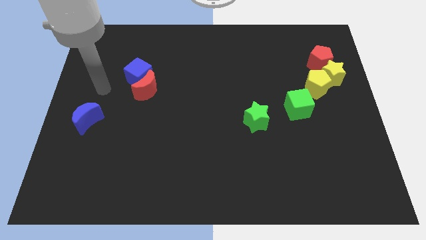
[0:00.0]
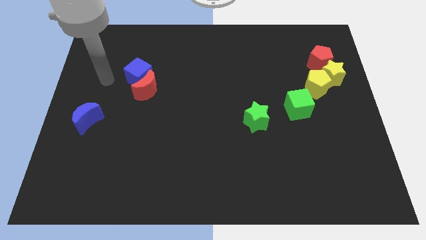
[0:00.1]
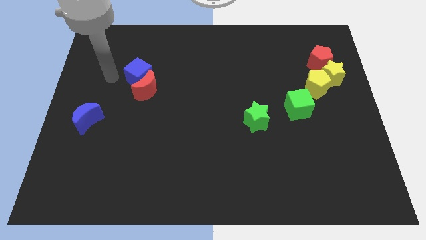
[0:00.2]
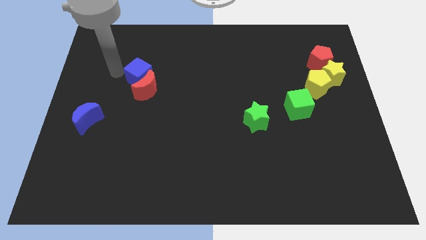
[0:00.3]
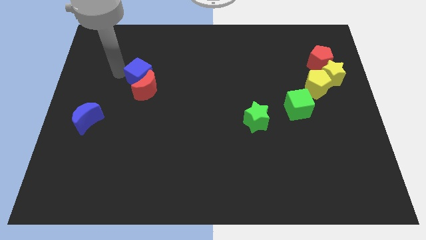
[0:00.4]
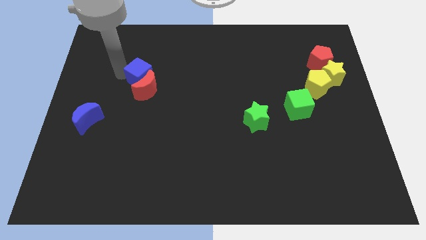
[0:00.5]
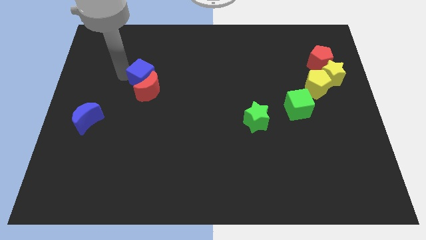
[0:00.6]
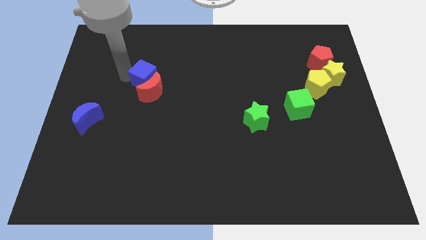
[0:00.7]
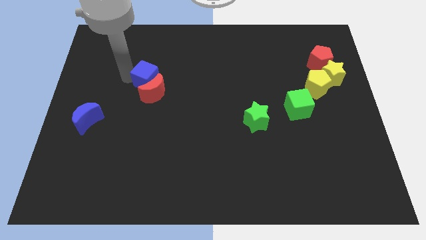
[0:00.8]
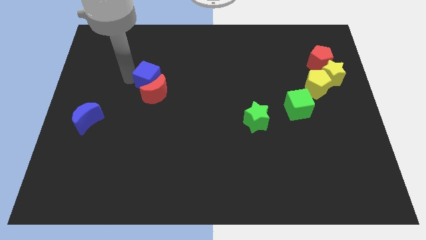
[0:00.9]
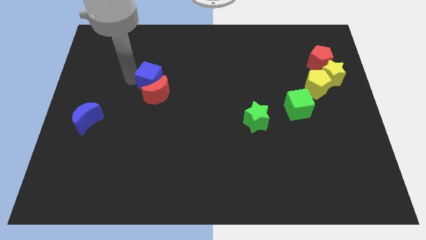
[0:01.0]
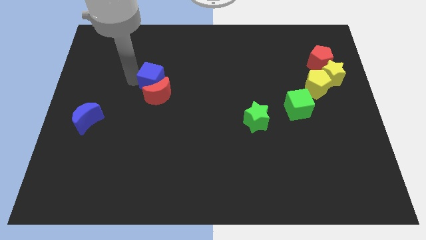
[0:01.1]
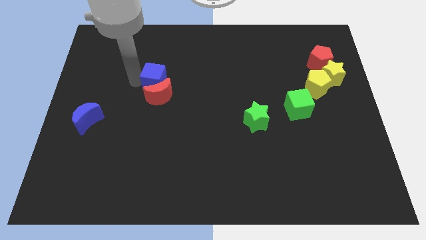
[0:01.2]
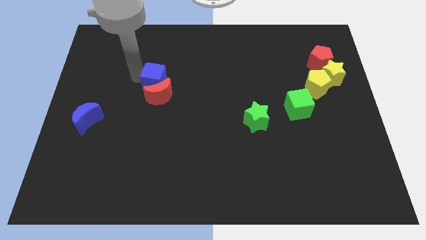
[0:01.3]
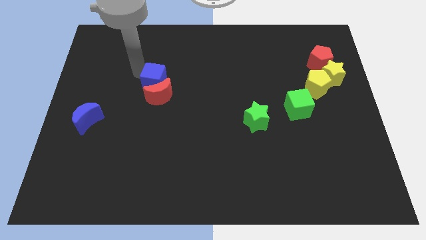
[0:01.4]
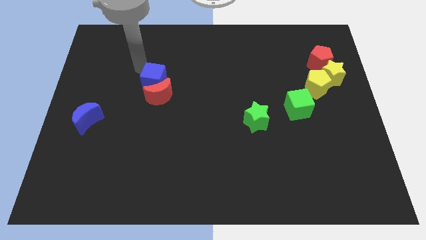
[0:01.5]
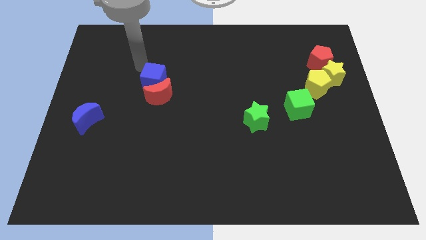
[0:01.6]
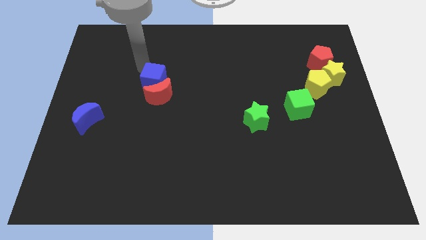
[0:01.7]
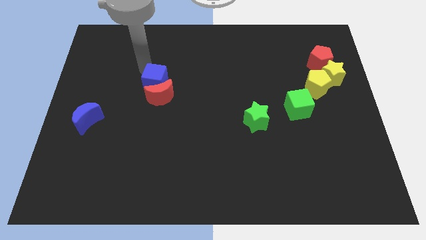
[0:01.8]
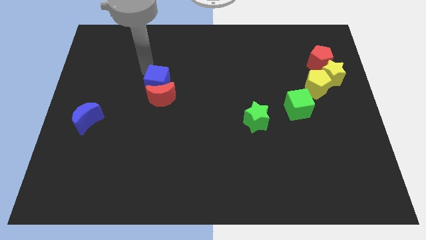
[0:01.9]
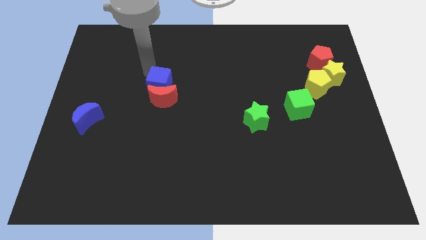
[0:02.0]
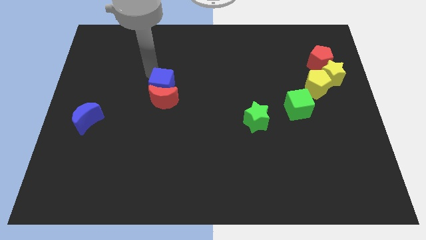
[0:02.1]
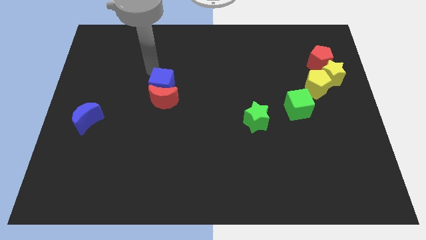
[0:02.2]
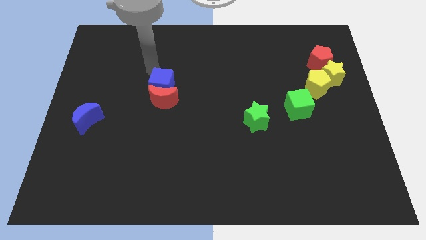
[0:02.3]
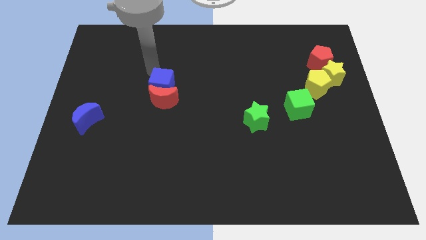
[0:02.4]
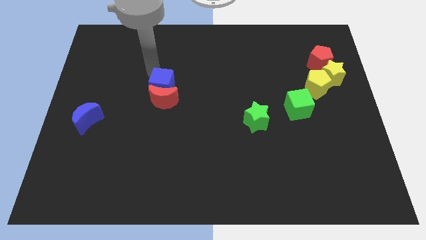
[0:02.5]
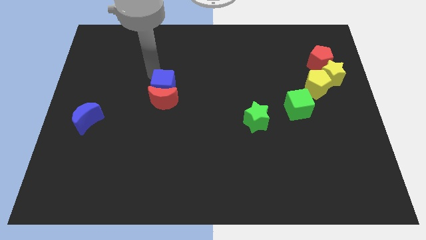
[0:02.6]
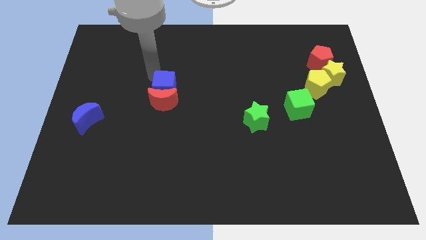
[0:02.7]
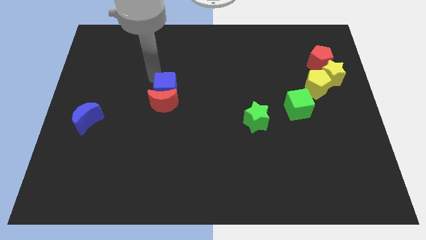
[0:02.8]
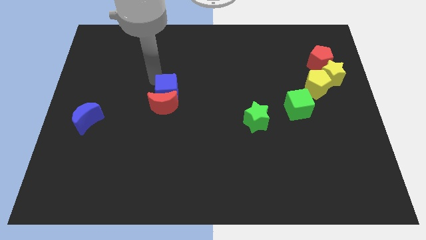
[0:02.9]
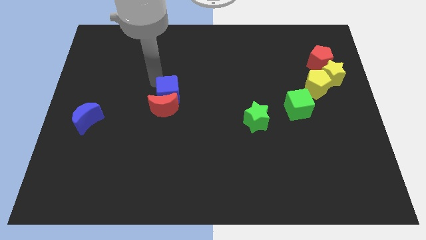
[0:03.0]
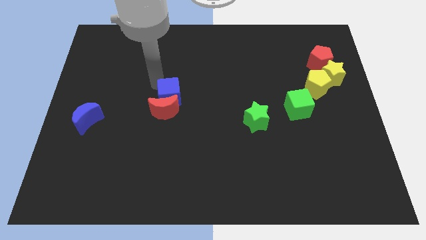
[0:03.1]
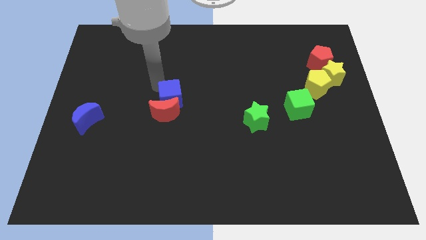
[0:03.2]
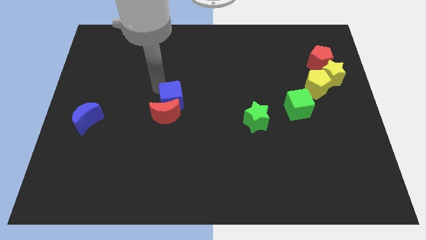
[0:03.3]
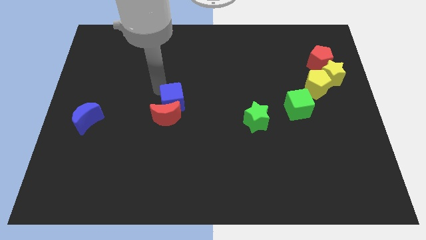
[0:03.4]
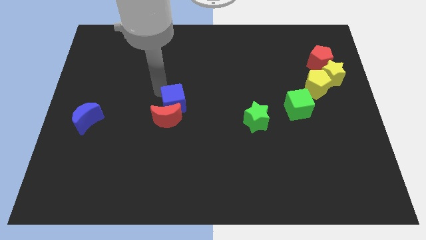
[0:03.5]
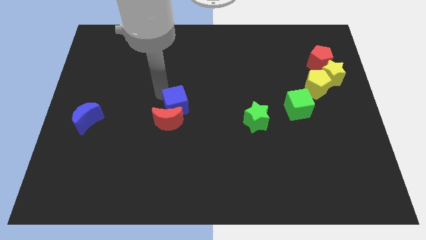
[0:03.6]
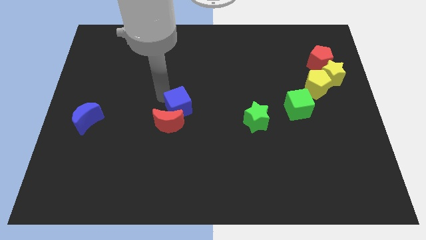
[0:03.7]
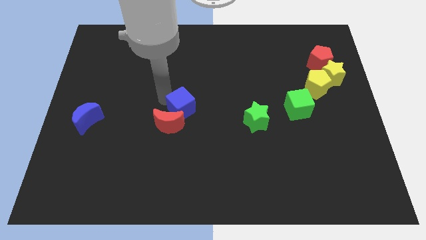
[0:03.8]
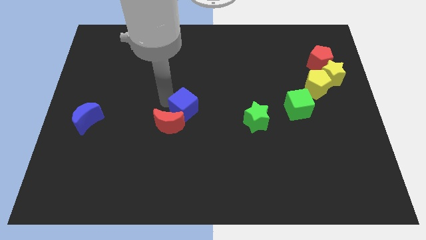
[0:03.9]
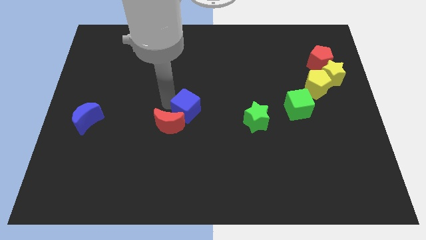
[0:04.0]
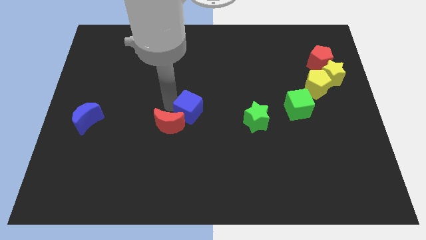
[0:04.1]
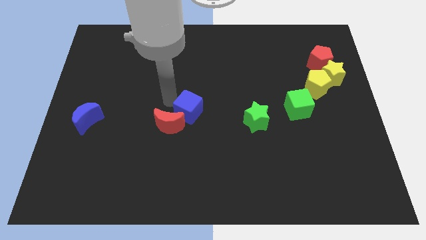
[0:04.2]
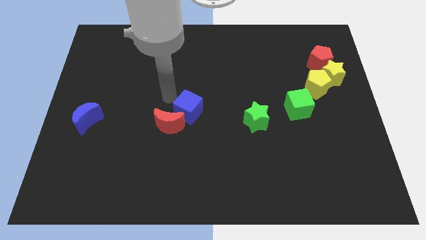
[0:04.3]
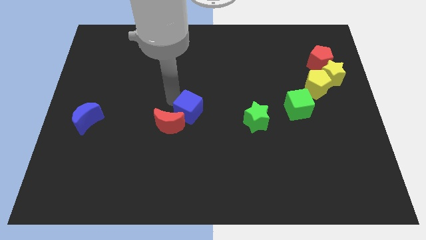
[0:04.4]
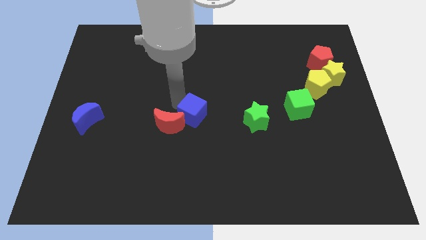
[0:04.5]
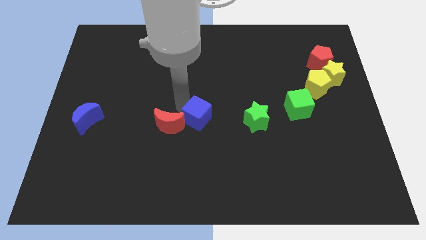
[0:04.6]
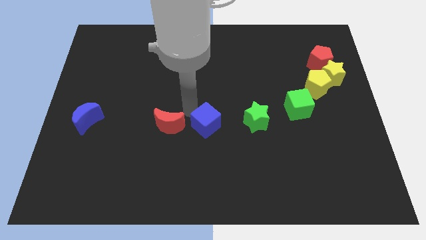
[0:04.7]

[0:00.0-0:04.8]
slide the blue cube downwards and then right

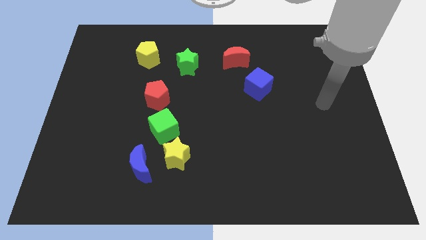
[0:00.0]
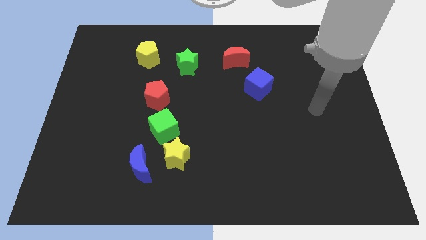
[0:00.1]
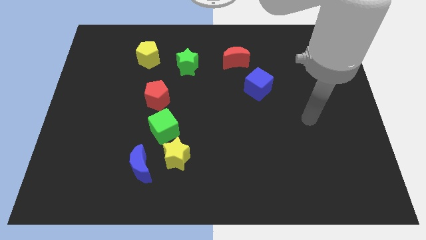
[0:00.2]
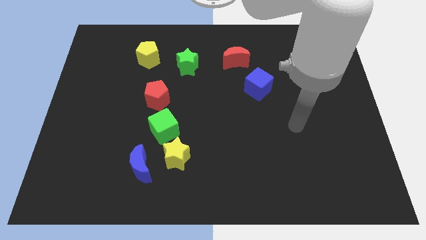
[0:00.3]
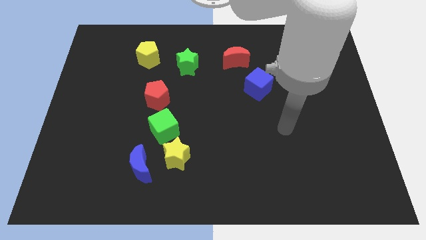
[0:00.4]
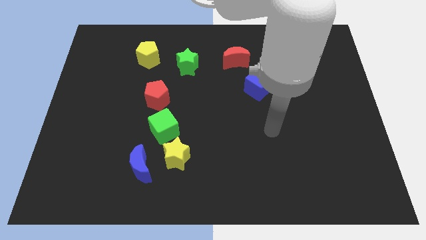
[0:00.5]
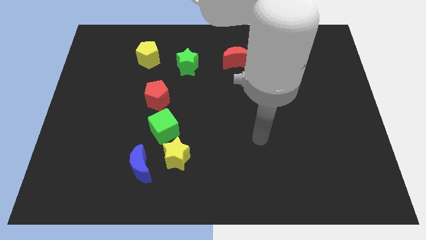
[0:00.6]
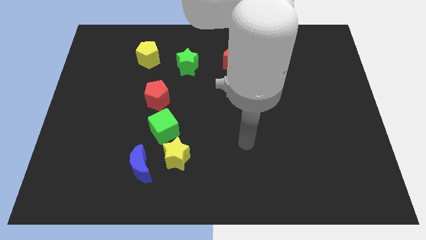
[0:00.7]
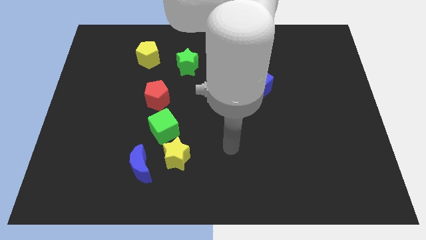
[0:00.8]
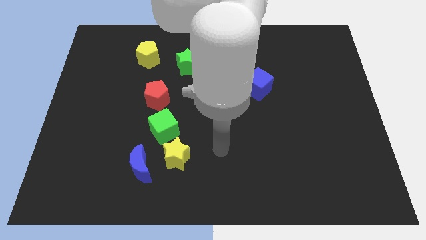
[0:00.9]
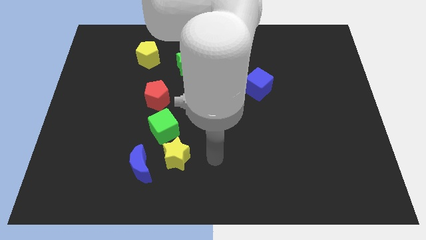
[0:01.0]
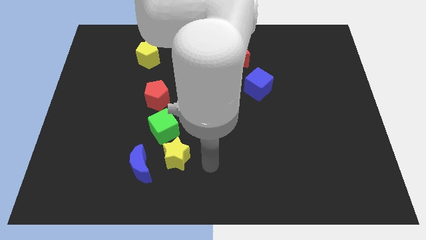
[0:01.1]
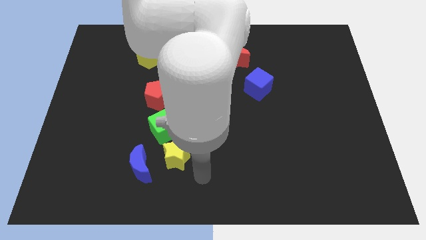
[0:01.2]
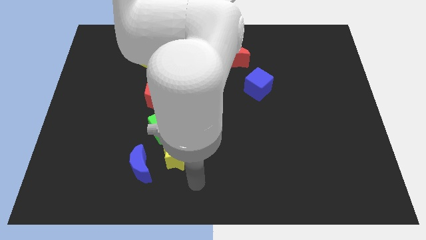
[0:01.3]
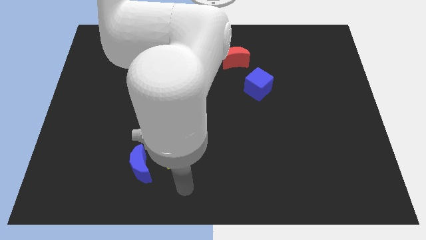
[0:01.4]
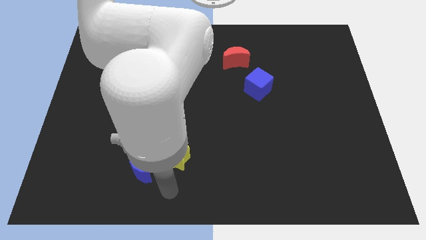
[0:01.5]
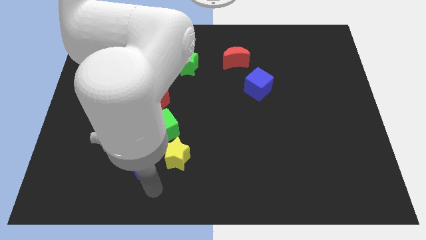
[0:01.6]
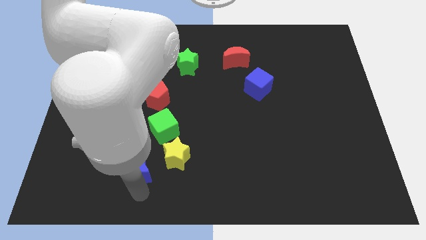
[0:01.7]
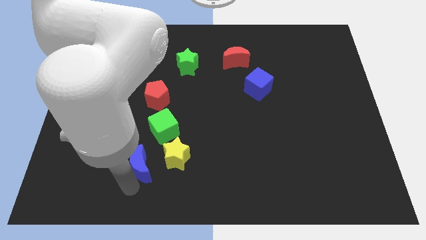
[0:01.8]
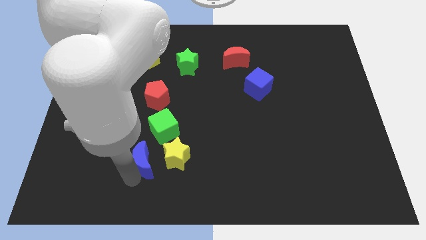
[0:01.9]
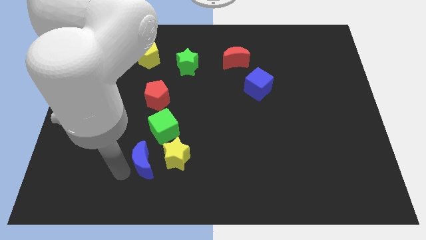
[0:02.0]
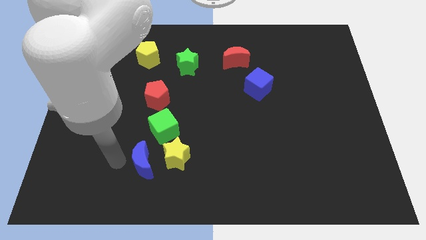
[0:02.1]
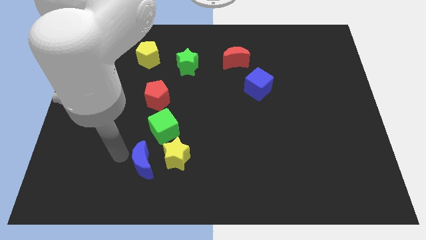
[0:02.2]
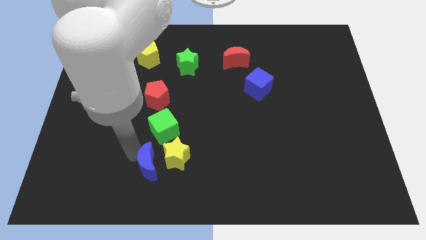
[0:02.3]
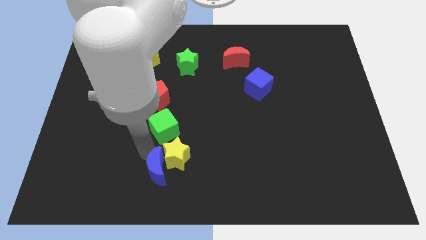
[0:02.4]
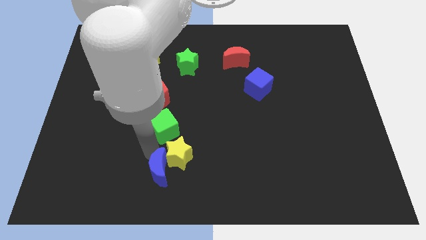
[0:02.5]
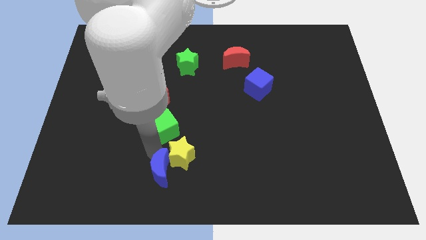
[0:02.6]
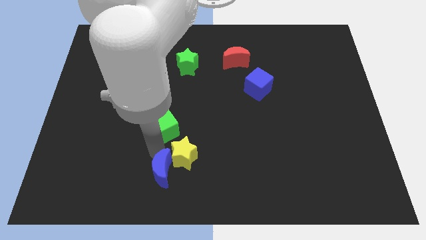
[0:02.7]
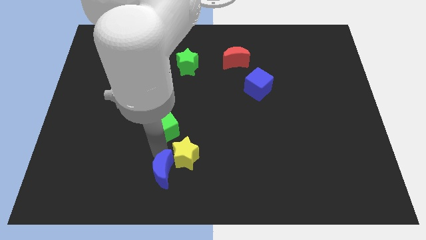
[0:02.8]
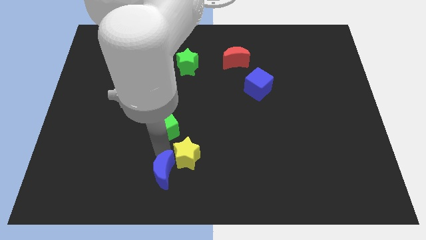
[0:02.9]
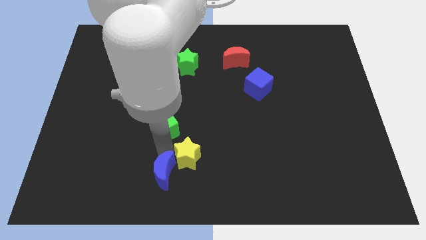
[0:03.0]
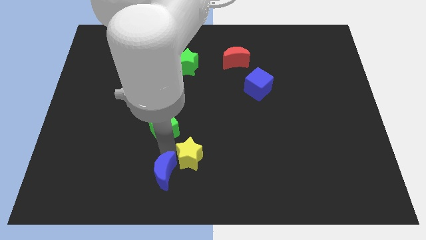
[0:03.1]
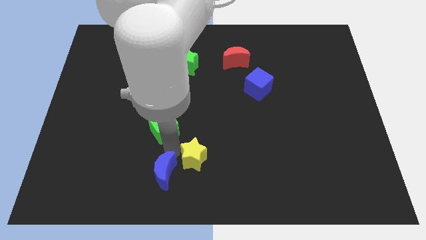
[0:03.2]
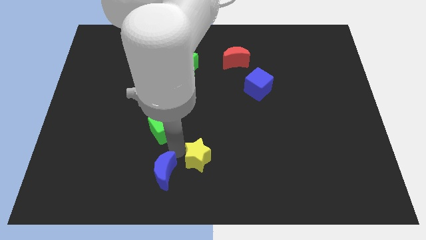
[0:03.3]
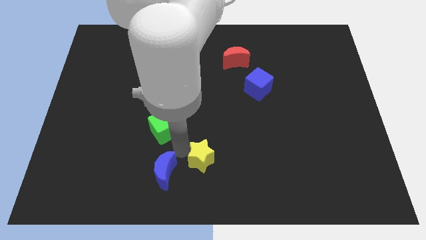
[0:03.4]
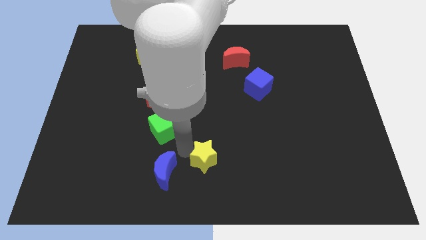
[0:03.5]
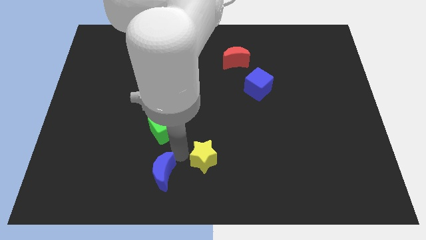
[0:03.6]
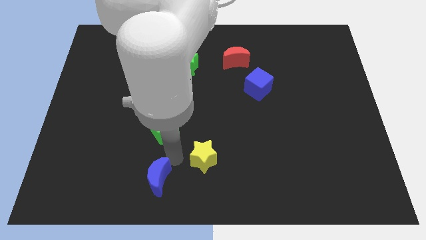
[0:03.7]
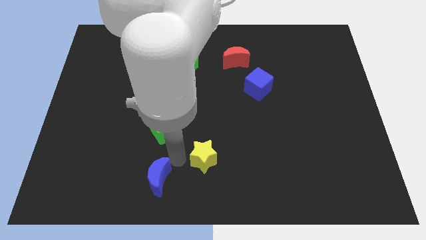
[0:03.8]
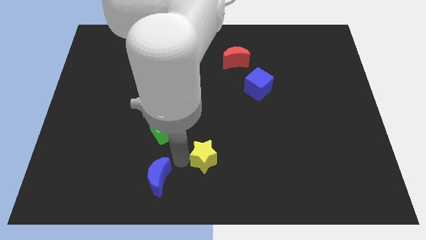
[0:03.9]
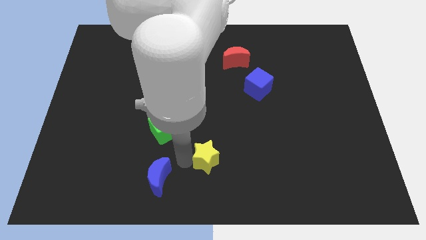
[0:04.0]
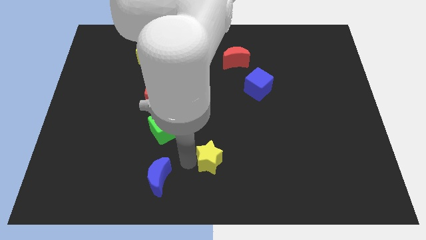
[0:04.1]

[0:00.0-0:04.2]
slightly push the yellow star to the right
